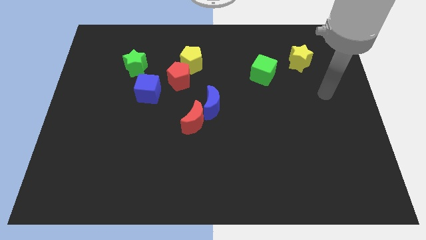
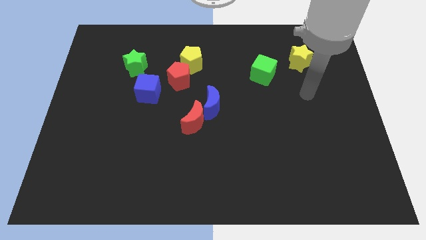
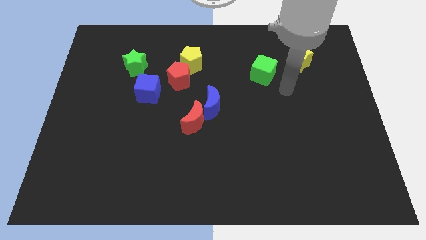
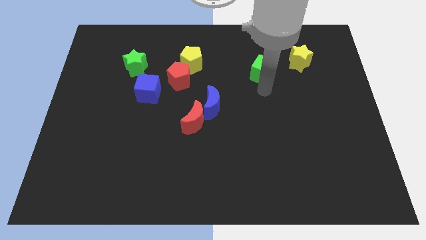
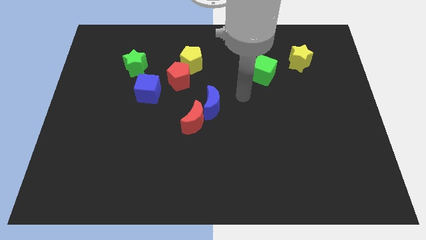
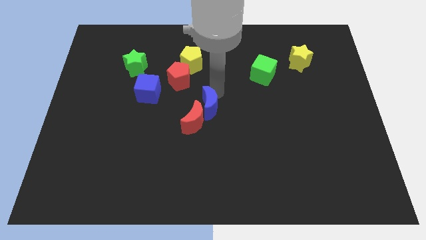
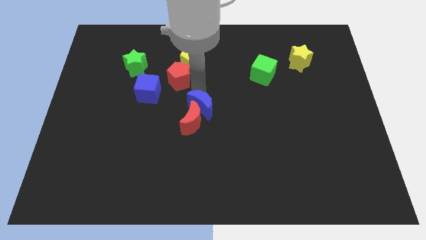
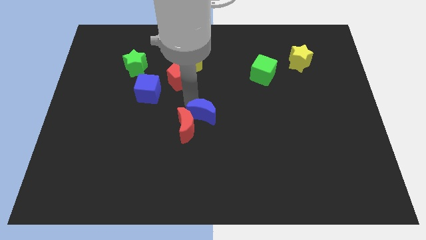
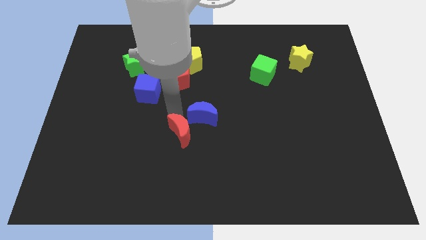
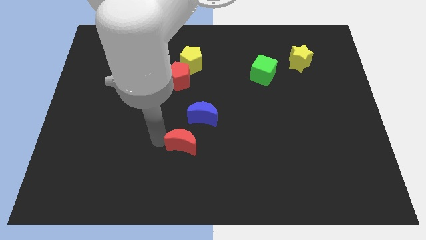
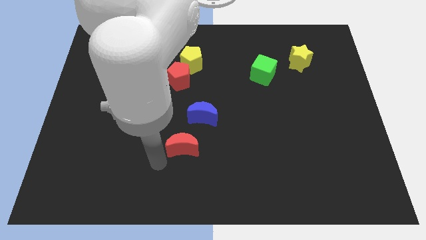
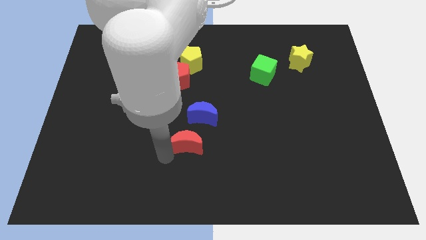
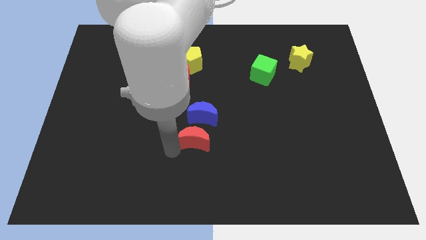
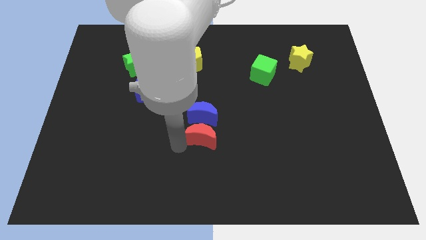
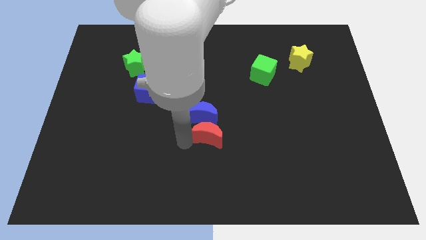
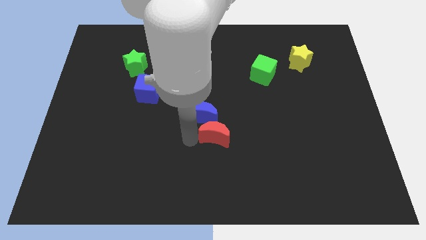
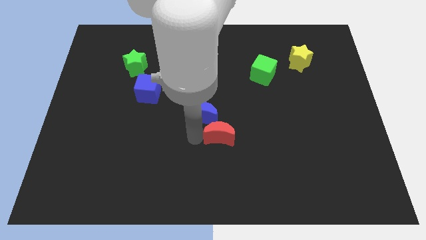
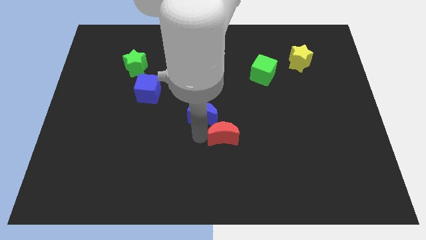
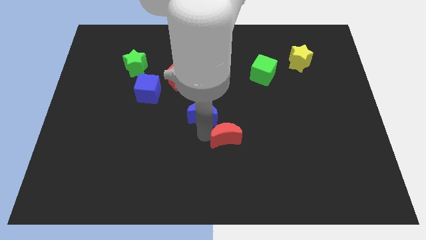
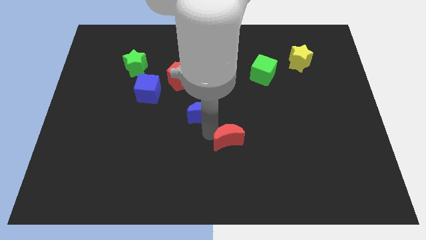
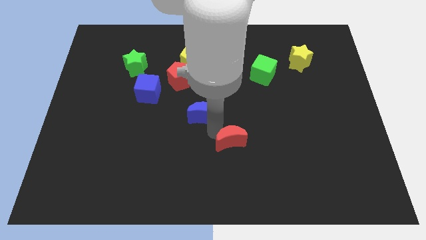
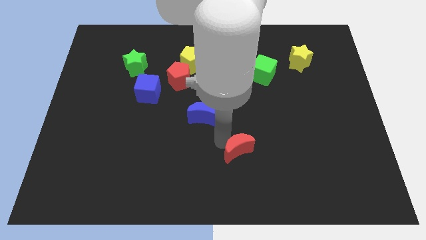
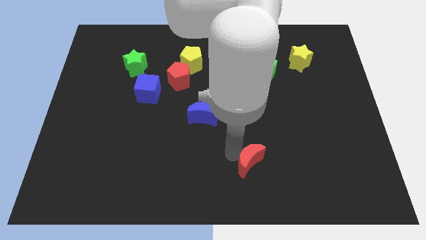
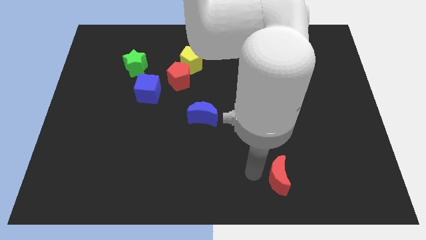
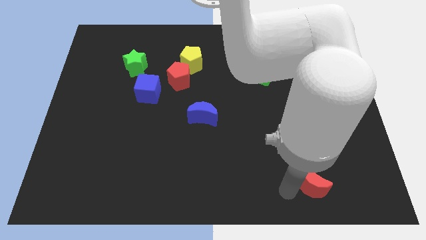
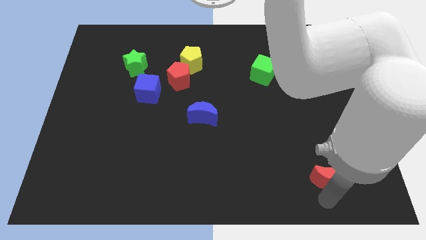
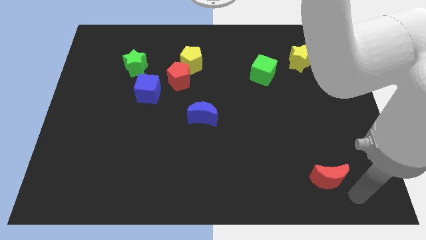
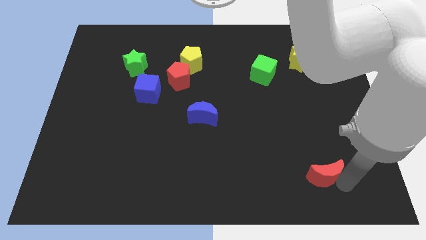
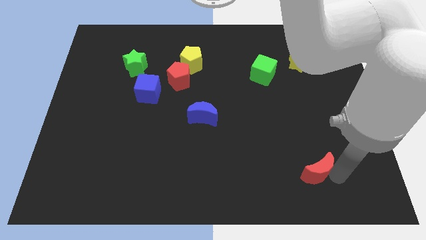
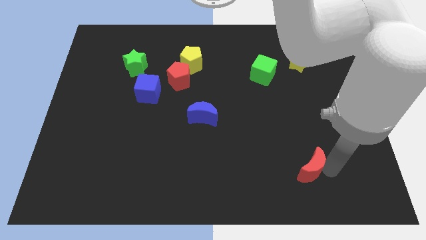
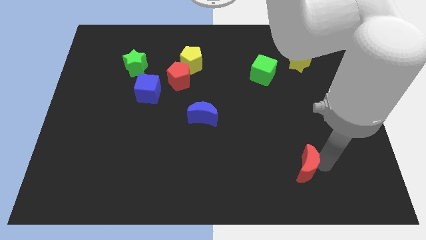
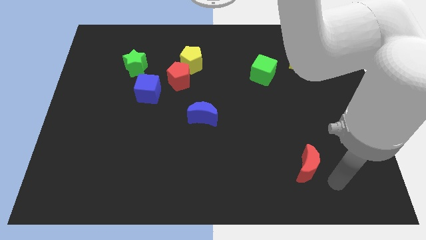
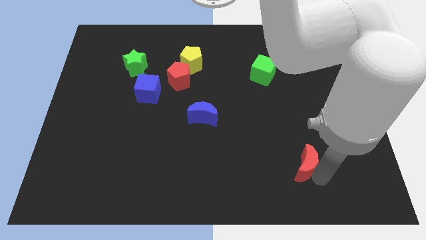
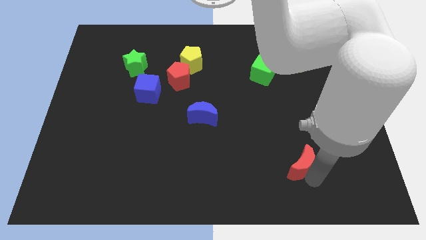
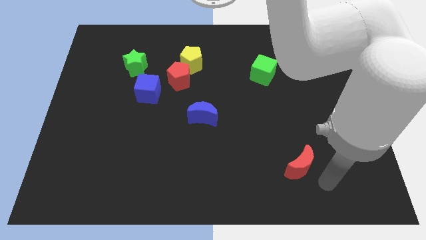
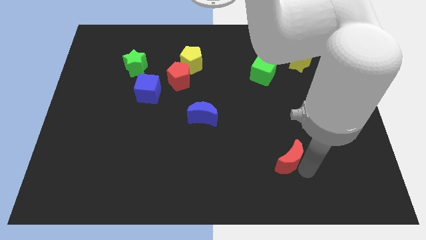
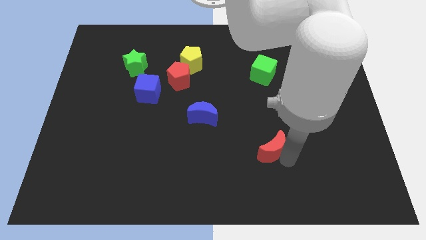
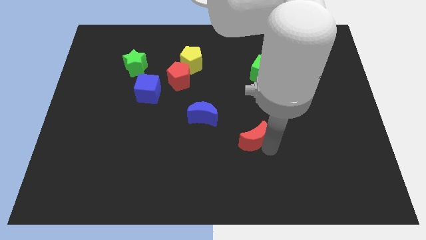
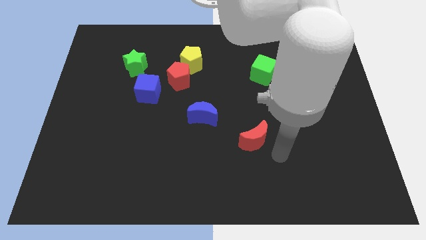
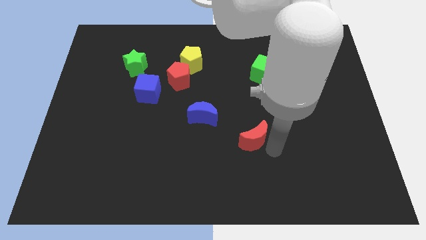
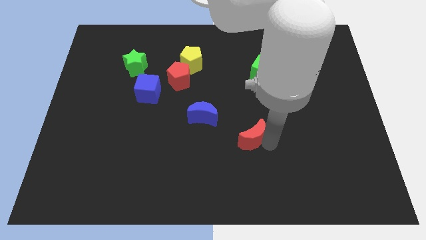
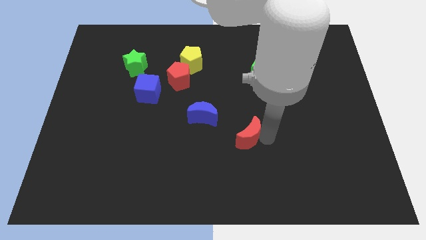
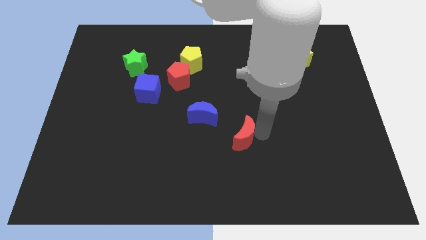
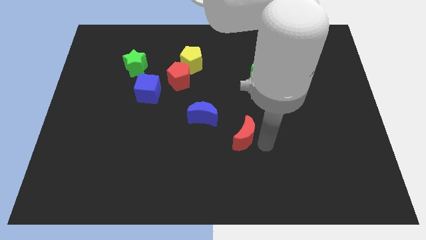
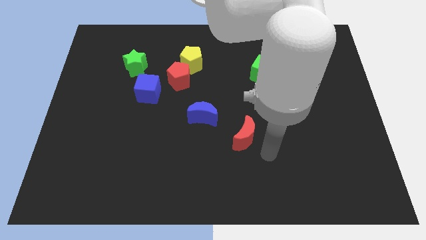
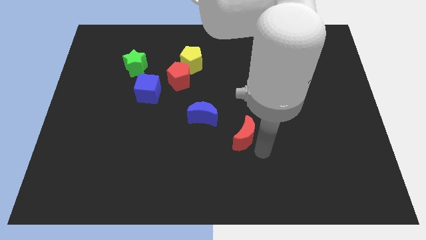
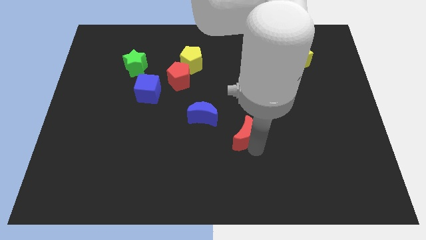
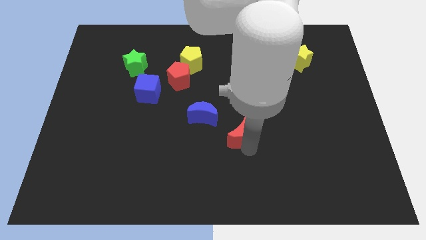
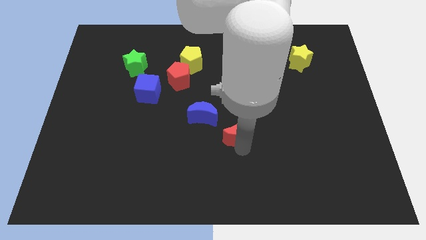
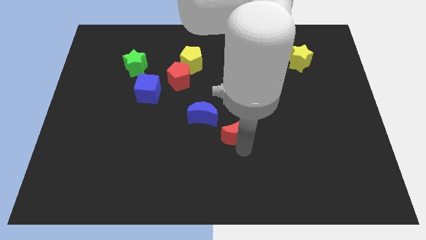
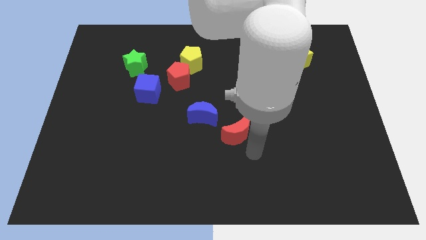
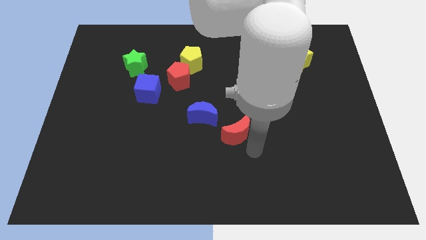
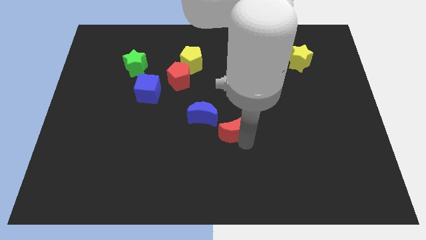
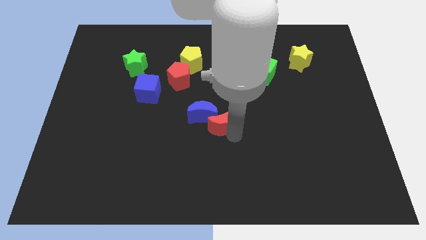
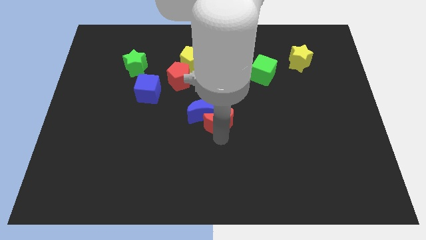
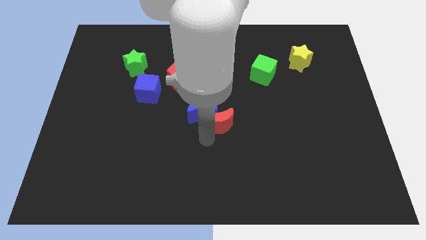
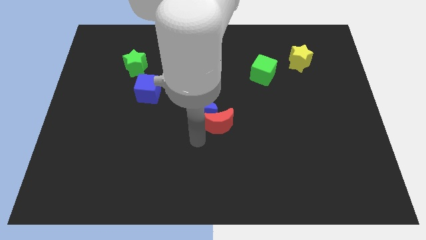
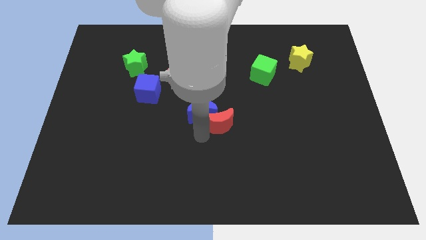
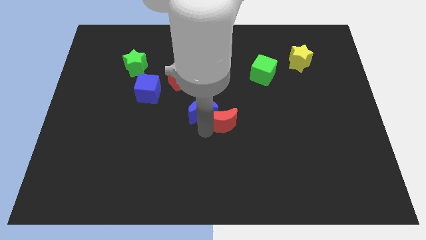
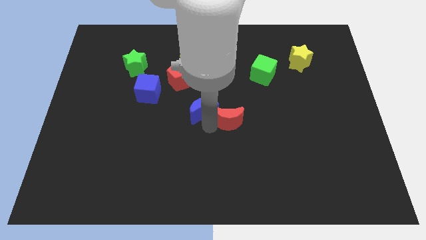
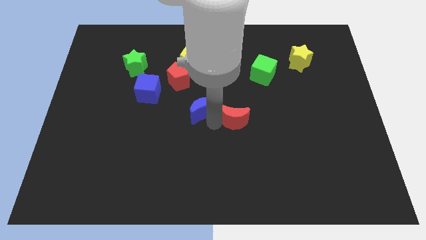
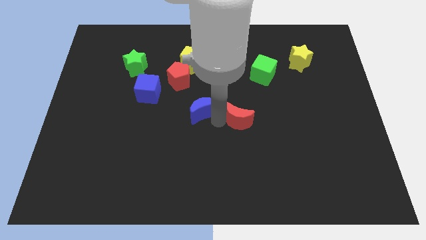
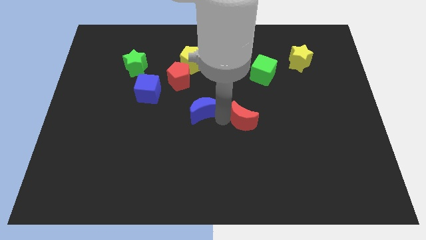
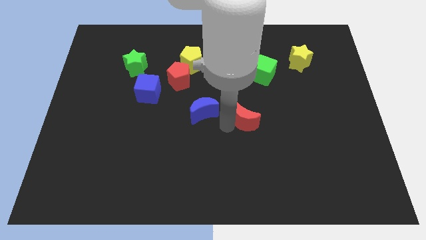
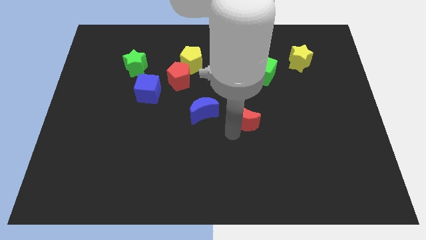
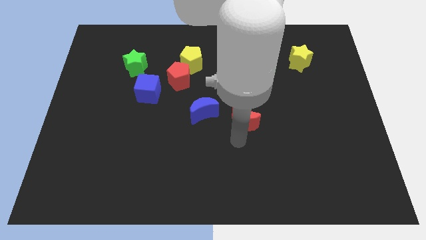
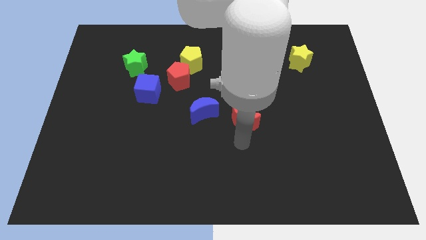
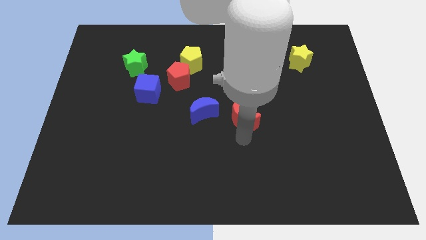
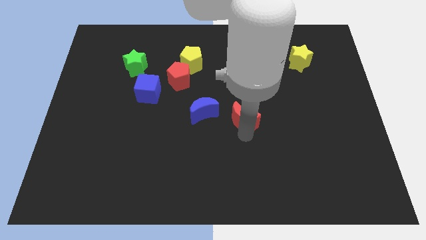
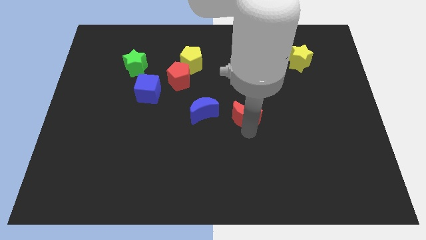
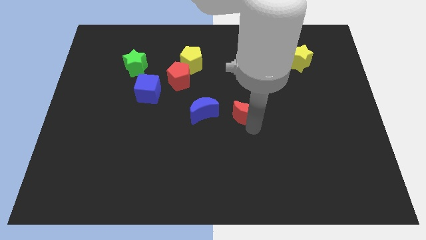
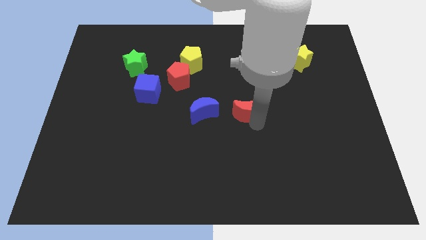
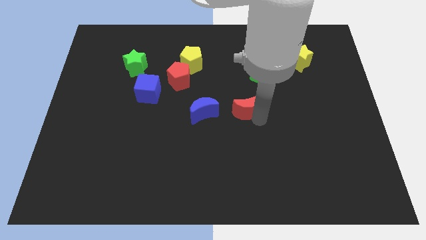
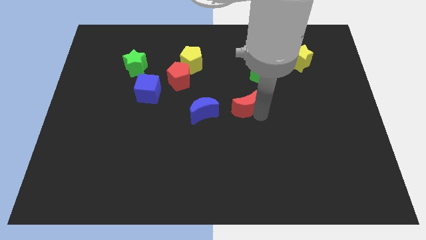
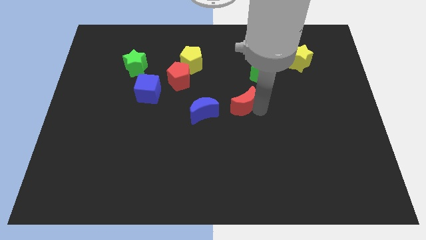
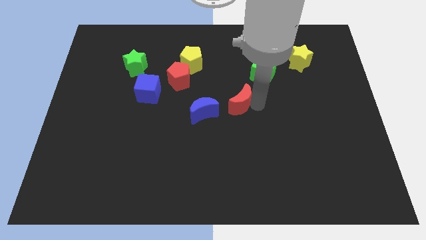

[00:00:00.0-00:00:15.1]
move the red moon to the top right of the blue moon
